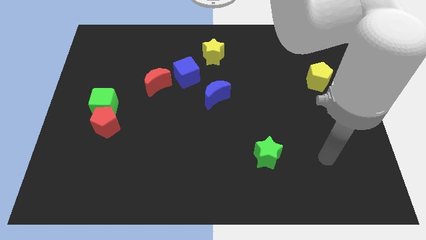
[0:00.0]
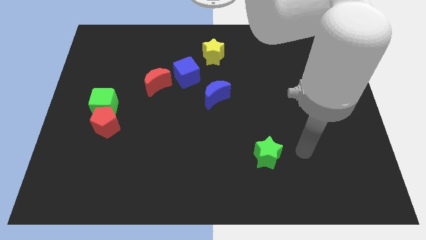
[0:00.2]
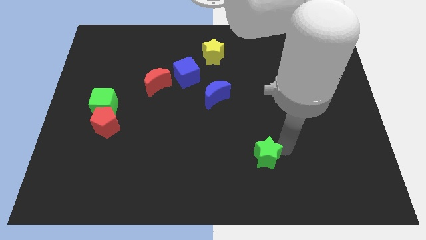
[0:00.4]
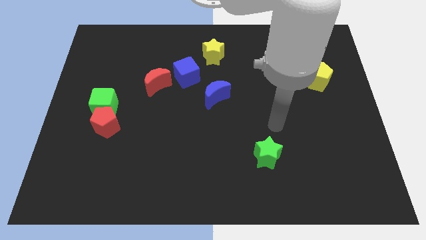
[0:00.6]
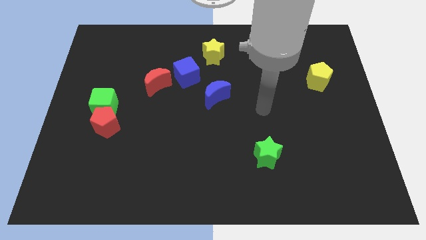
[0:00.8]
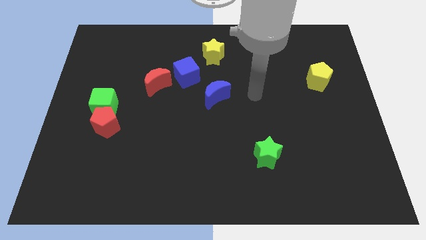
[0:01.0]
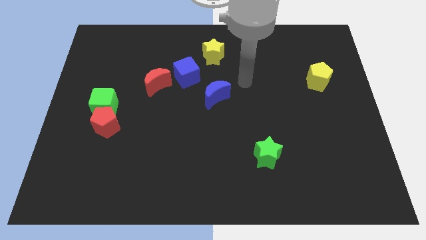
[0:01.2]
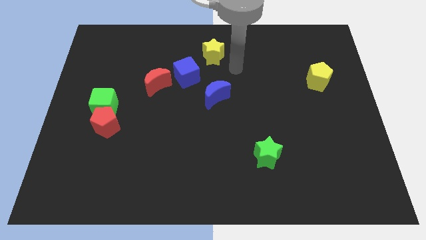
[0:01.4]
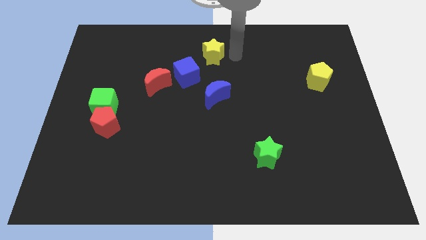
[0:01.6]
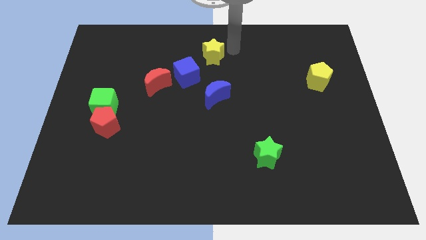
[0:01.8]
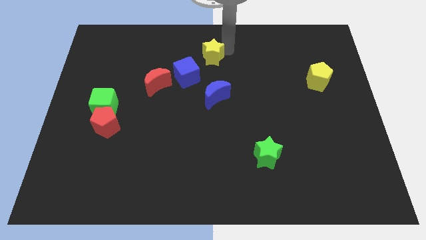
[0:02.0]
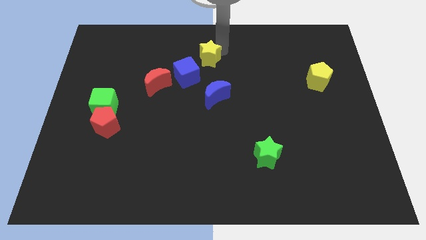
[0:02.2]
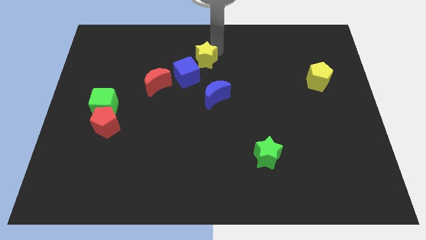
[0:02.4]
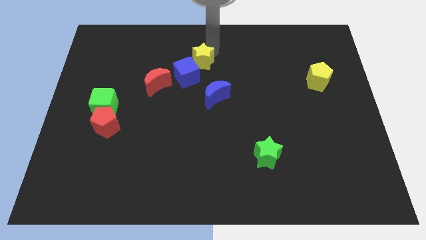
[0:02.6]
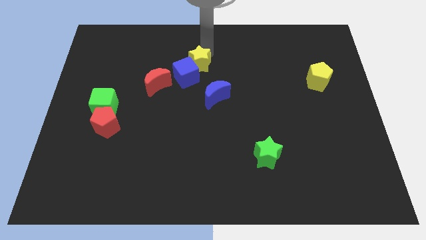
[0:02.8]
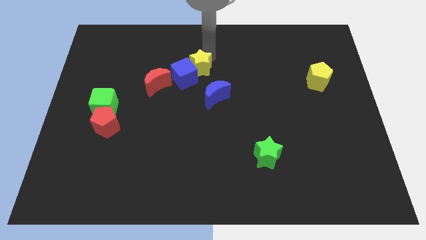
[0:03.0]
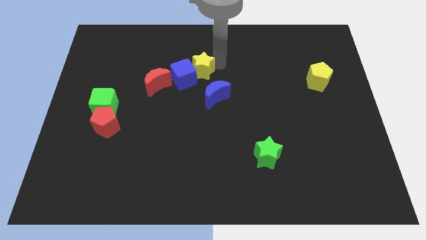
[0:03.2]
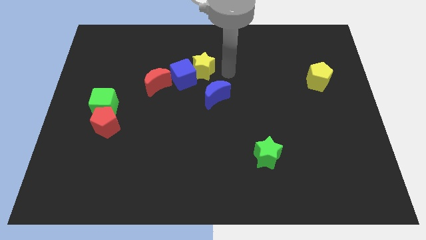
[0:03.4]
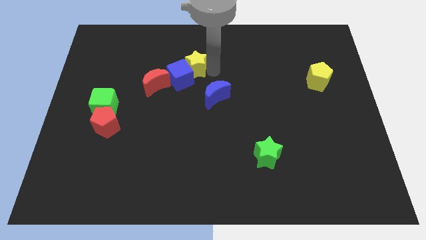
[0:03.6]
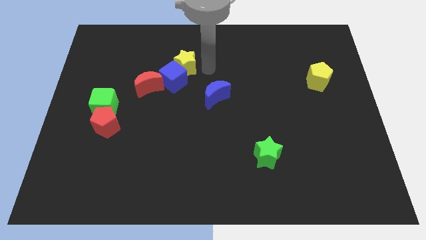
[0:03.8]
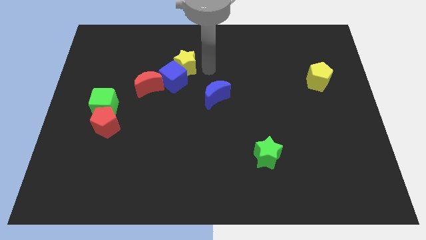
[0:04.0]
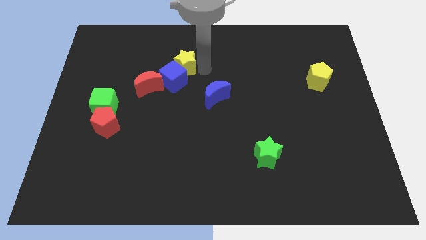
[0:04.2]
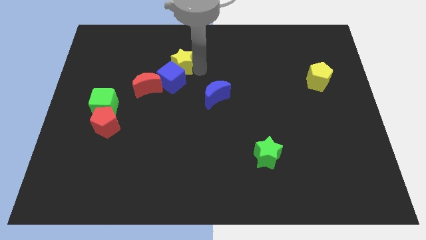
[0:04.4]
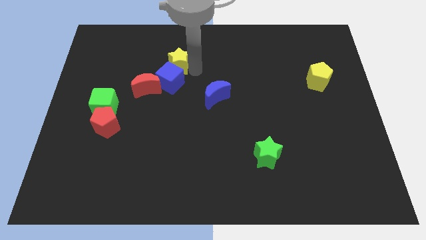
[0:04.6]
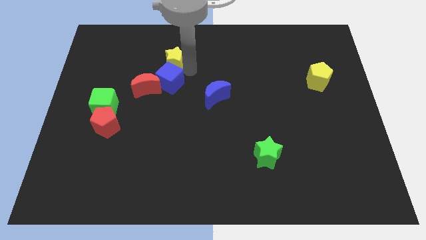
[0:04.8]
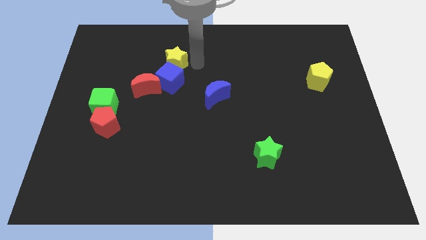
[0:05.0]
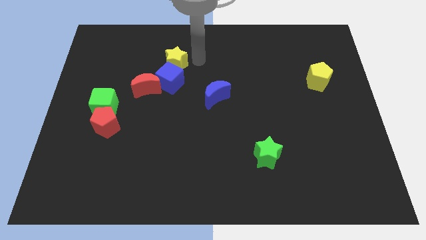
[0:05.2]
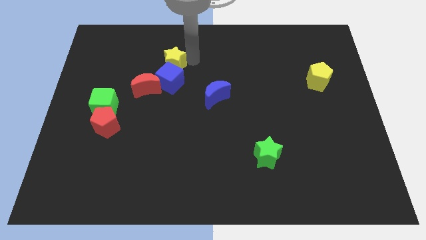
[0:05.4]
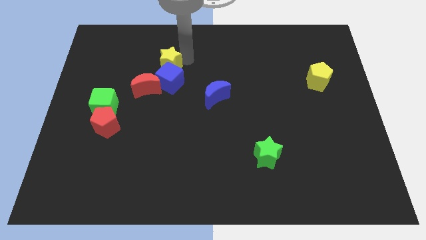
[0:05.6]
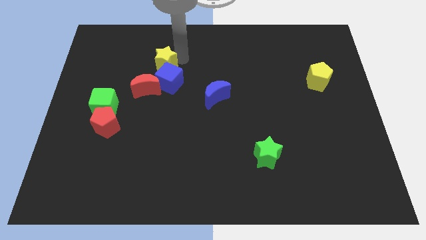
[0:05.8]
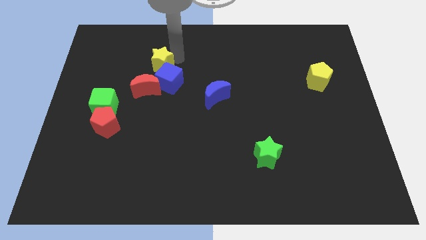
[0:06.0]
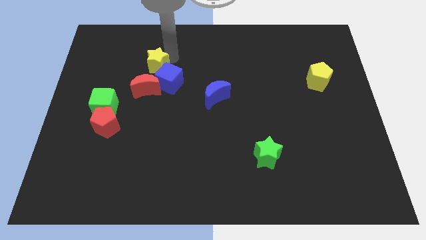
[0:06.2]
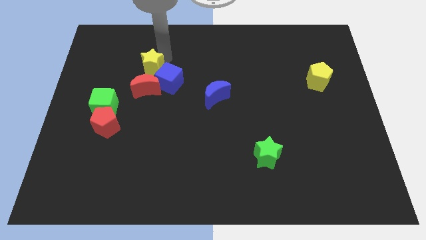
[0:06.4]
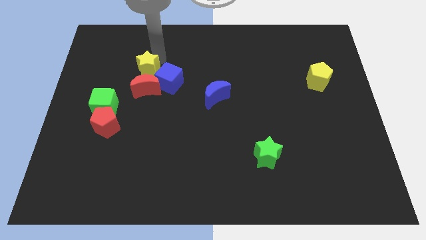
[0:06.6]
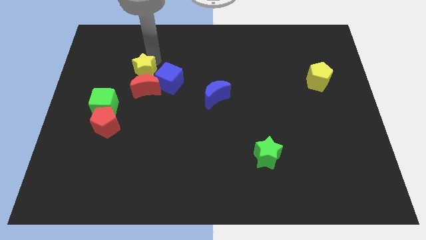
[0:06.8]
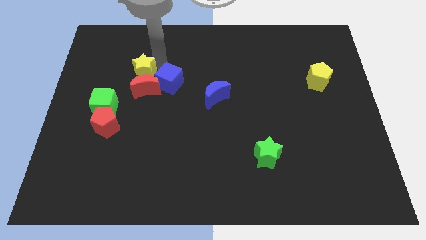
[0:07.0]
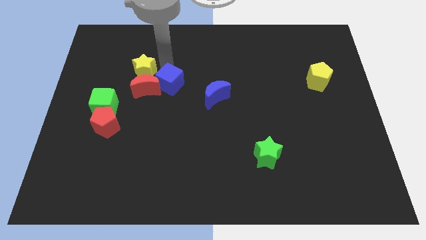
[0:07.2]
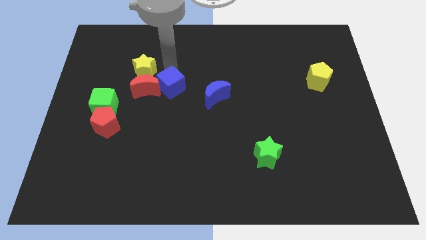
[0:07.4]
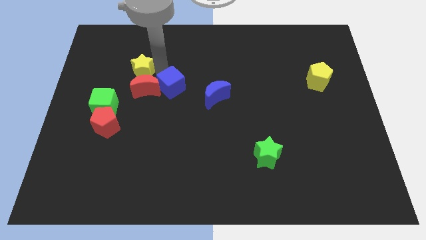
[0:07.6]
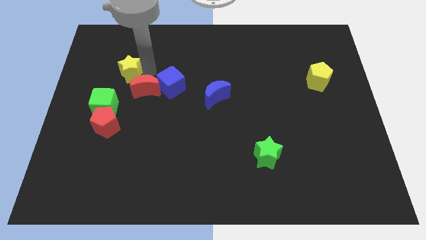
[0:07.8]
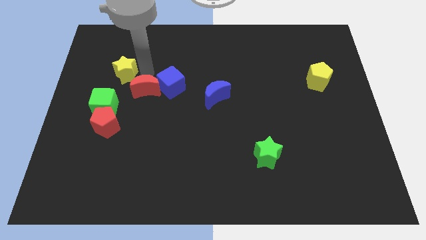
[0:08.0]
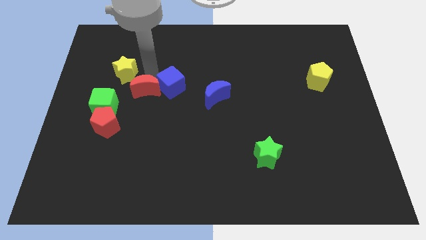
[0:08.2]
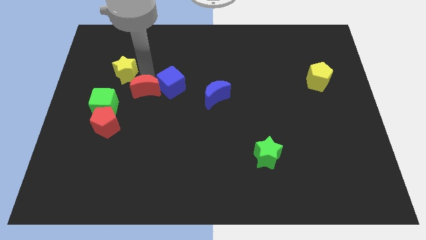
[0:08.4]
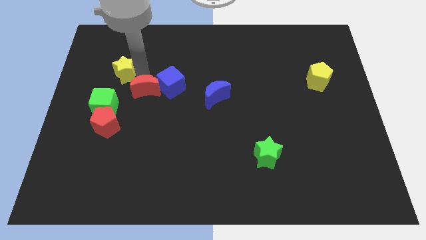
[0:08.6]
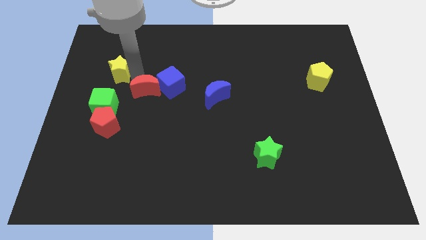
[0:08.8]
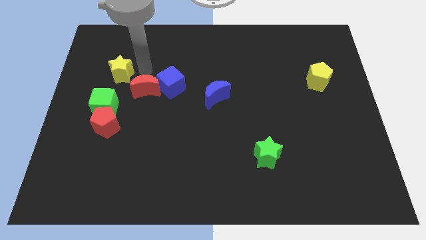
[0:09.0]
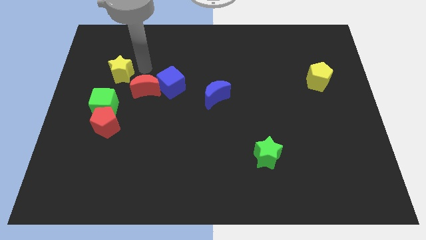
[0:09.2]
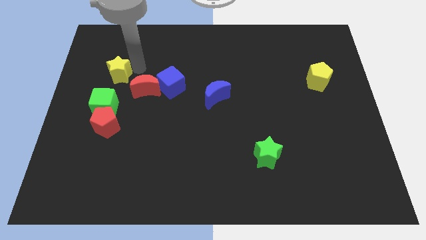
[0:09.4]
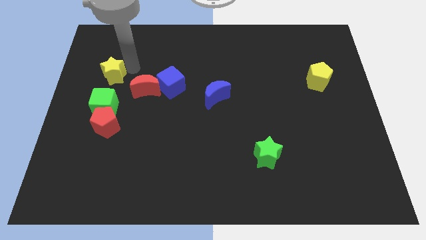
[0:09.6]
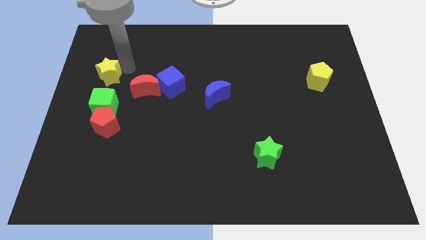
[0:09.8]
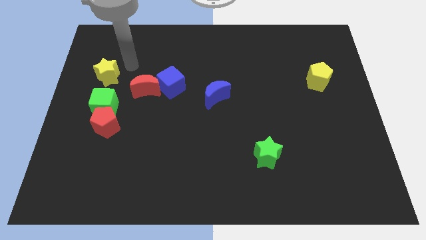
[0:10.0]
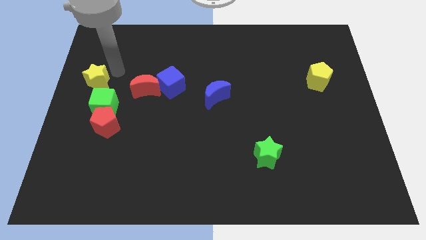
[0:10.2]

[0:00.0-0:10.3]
push the yellow star to the left side of the board

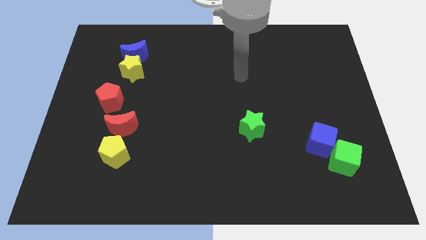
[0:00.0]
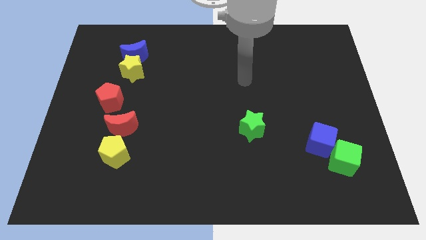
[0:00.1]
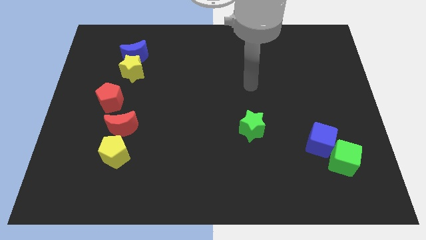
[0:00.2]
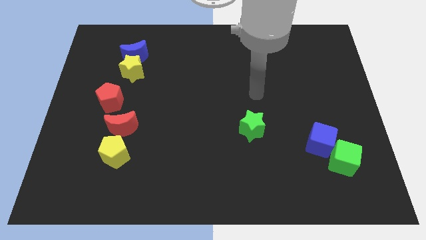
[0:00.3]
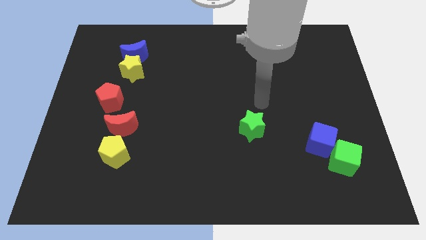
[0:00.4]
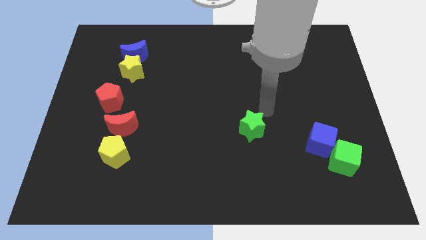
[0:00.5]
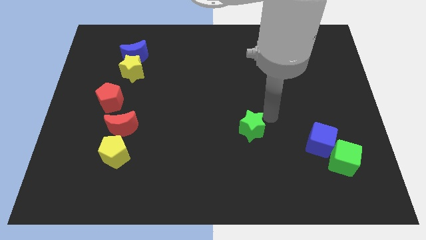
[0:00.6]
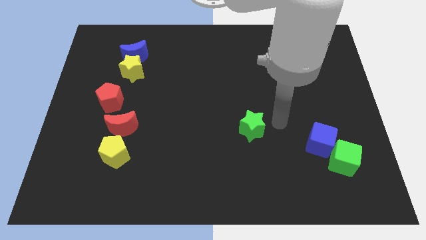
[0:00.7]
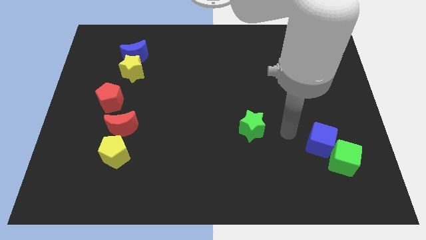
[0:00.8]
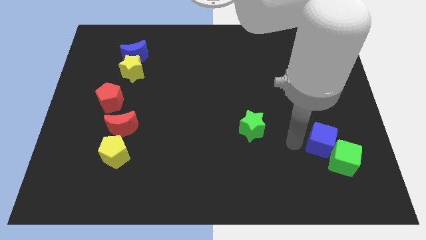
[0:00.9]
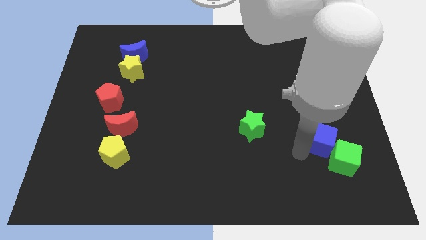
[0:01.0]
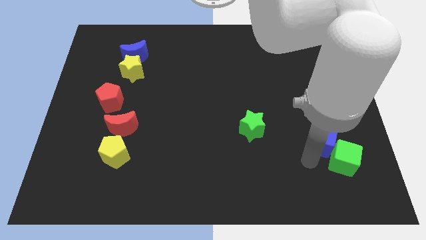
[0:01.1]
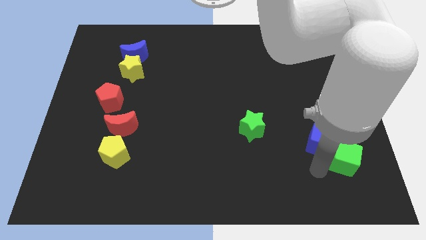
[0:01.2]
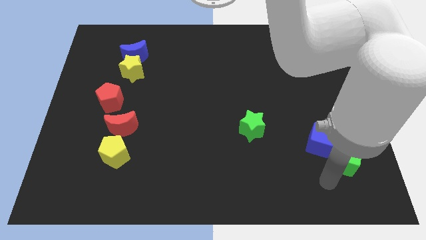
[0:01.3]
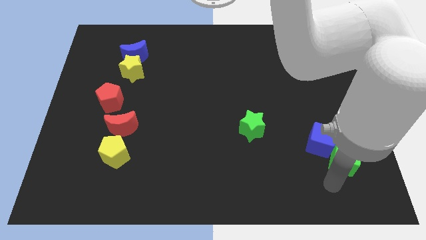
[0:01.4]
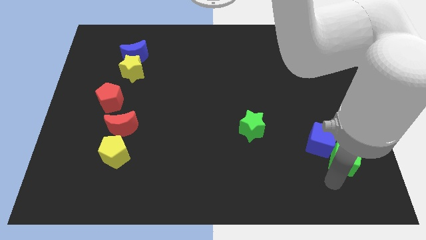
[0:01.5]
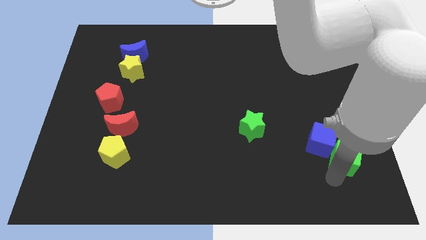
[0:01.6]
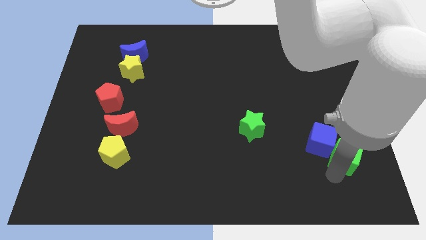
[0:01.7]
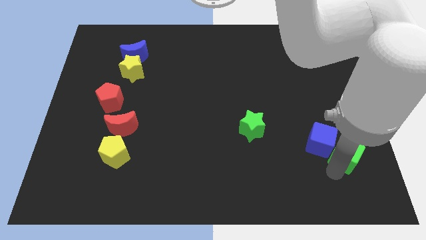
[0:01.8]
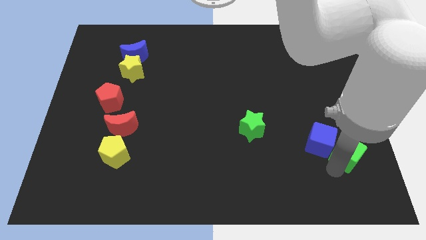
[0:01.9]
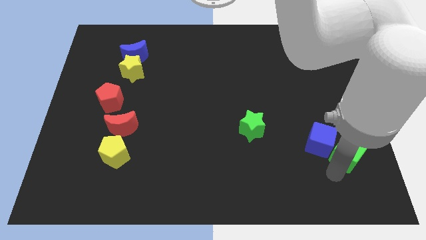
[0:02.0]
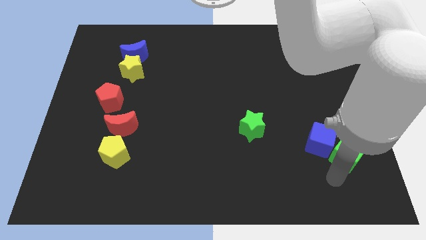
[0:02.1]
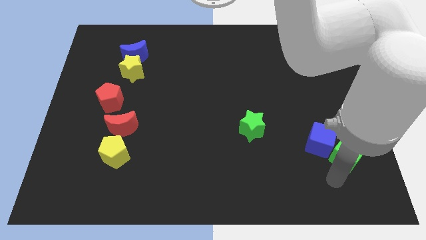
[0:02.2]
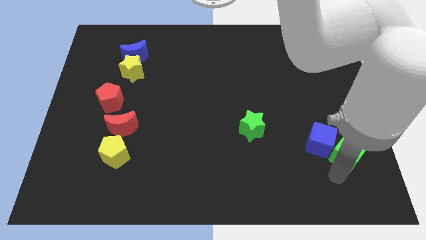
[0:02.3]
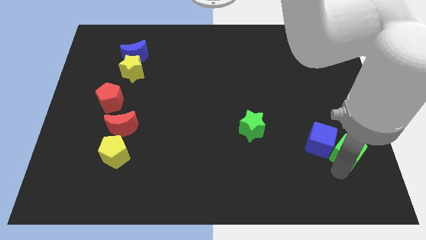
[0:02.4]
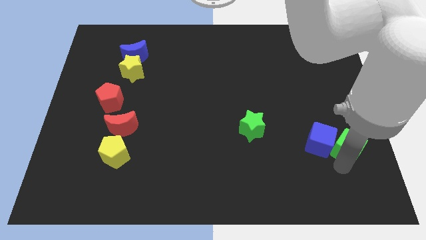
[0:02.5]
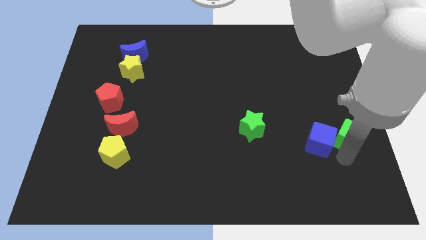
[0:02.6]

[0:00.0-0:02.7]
push the green cube to the right side
